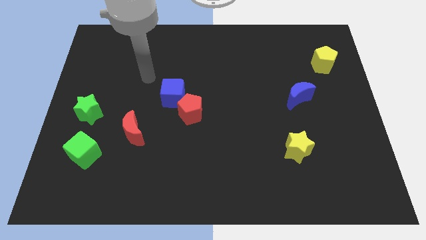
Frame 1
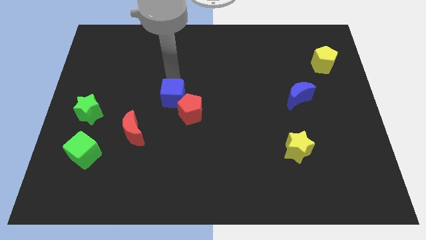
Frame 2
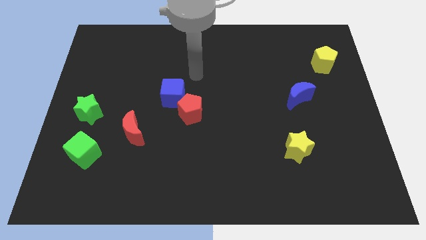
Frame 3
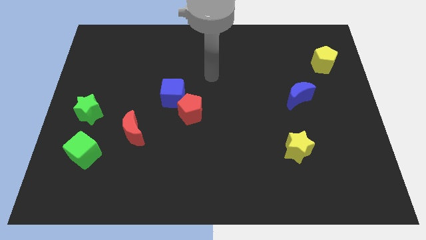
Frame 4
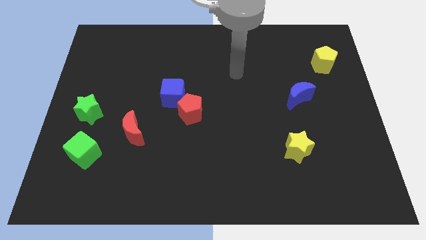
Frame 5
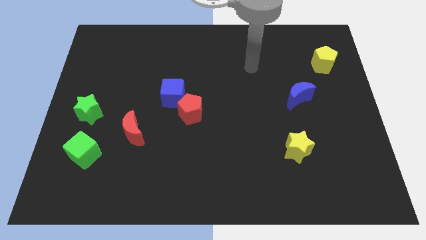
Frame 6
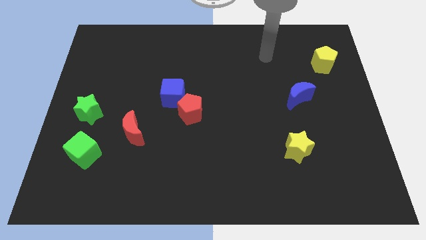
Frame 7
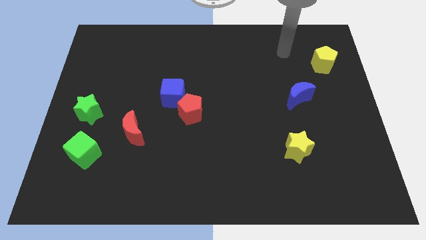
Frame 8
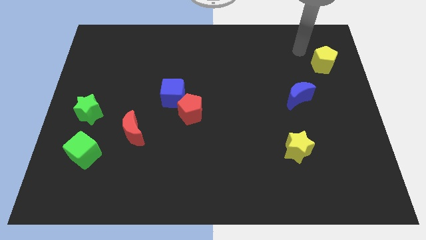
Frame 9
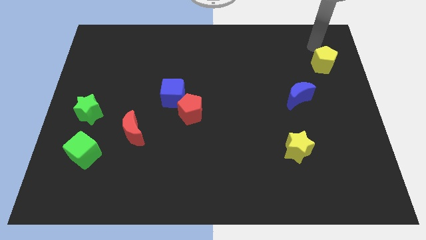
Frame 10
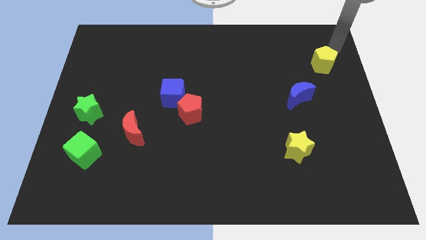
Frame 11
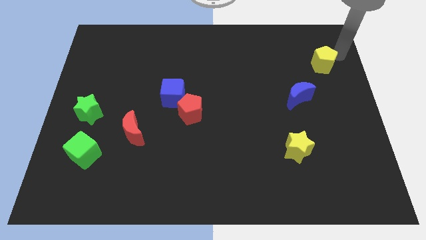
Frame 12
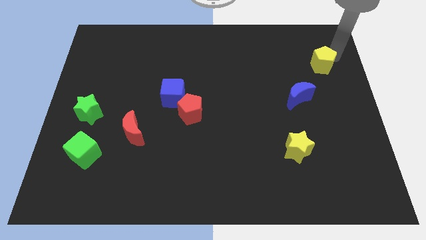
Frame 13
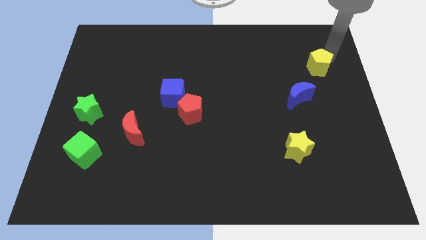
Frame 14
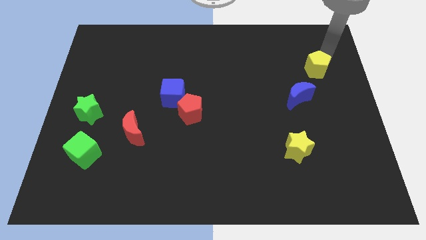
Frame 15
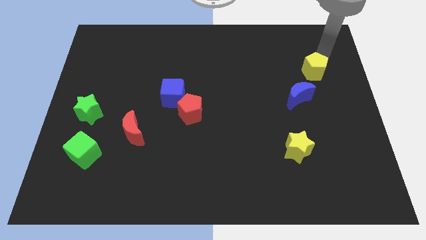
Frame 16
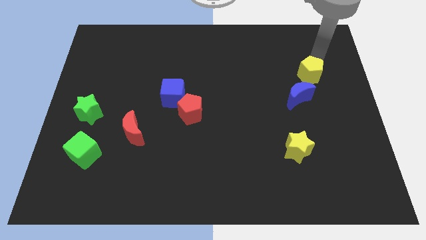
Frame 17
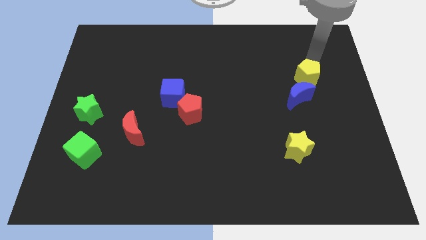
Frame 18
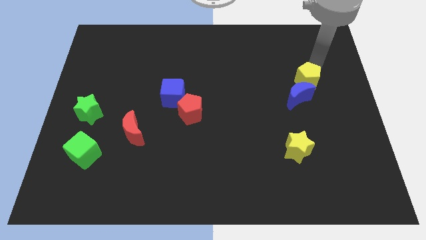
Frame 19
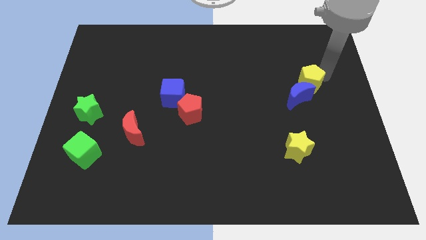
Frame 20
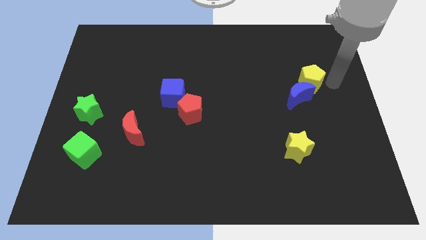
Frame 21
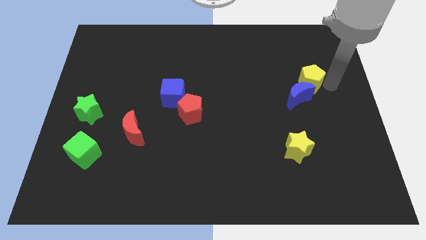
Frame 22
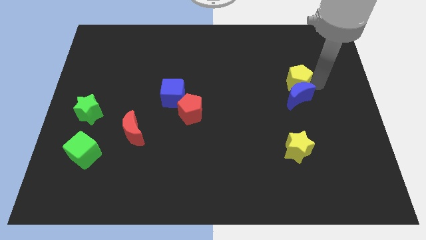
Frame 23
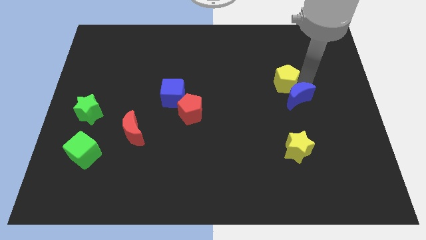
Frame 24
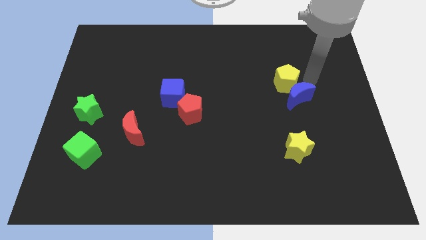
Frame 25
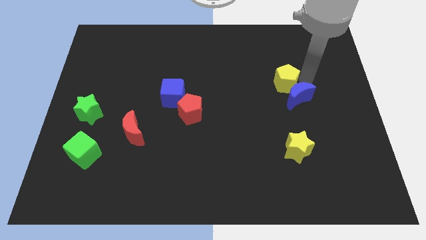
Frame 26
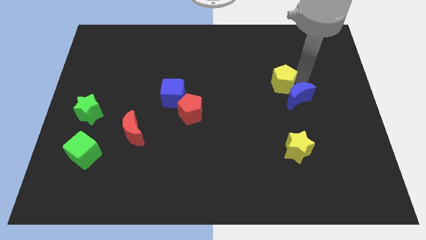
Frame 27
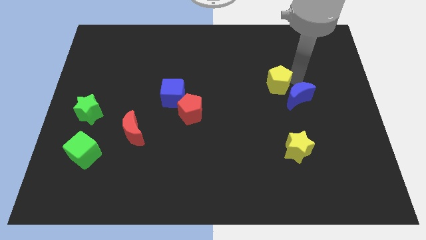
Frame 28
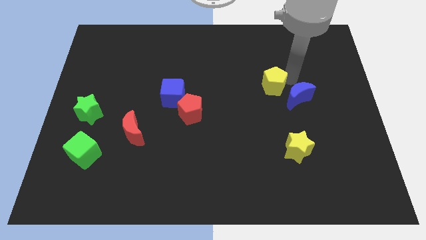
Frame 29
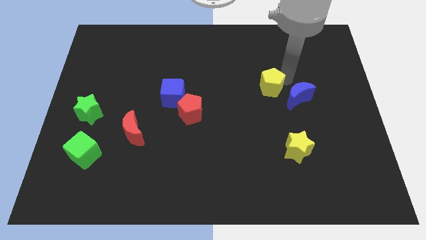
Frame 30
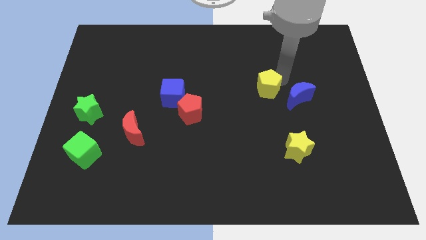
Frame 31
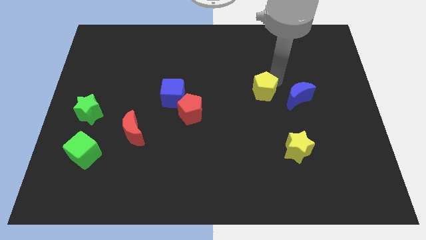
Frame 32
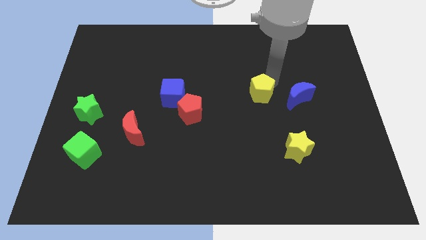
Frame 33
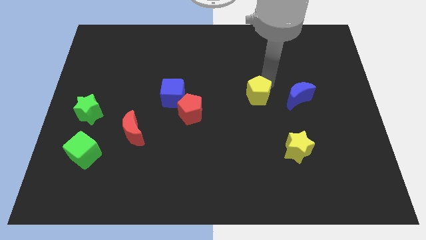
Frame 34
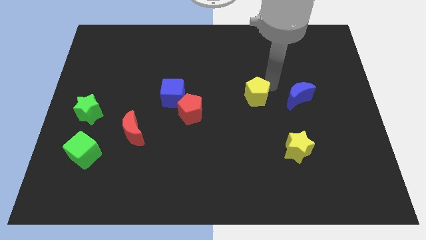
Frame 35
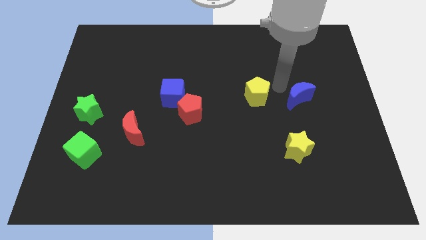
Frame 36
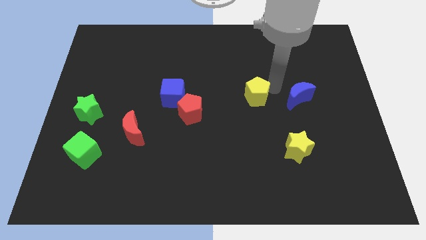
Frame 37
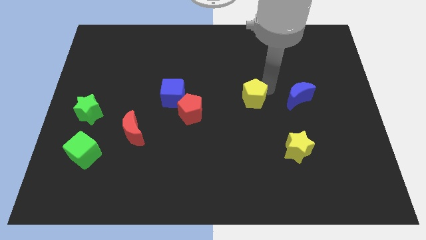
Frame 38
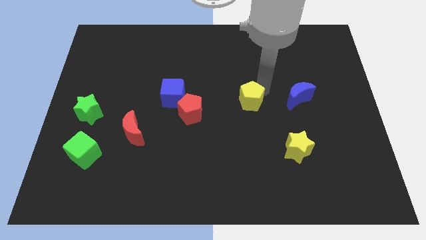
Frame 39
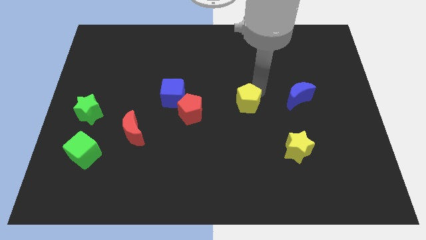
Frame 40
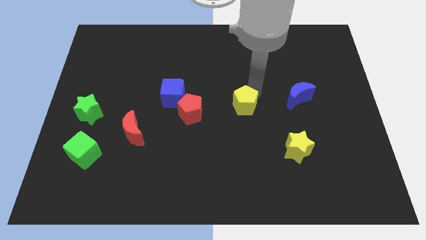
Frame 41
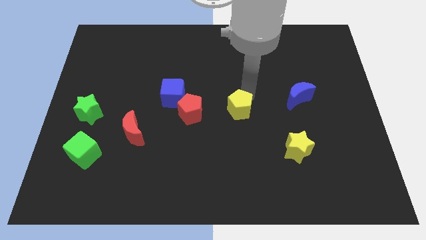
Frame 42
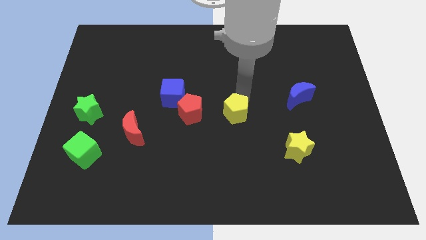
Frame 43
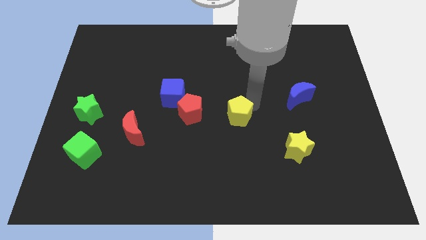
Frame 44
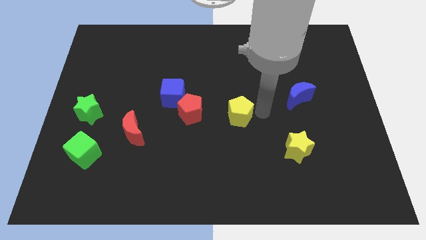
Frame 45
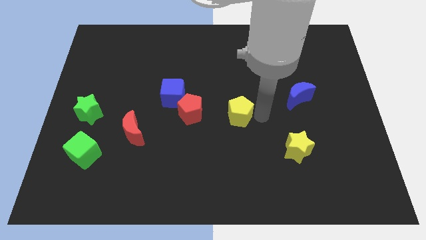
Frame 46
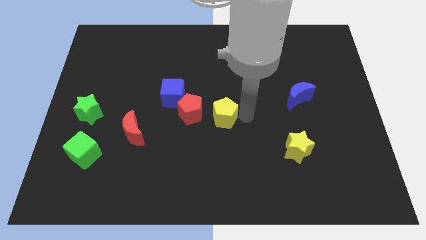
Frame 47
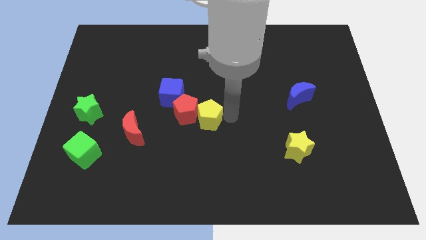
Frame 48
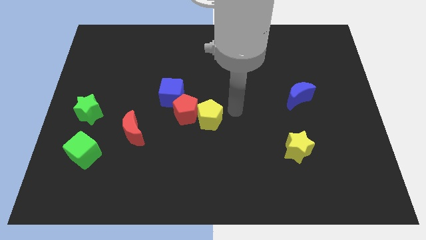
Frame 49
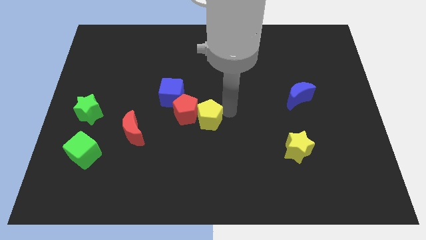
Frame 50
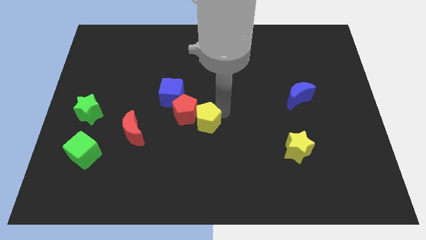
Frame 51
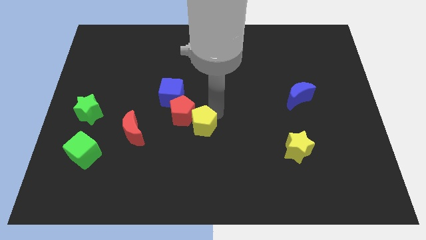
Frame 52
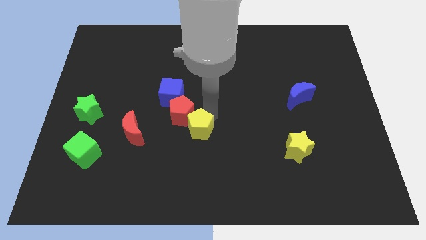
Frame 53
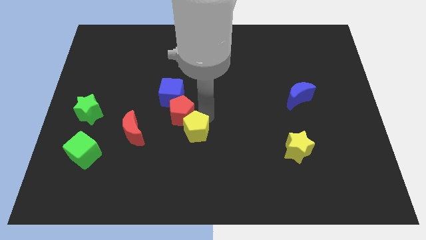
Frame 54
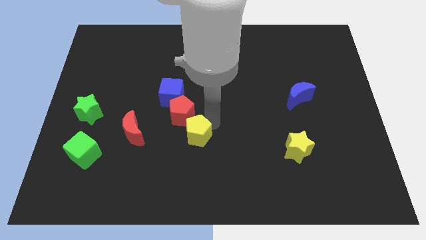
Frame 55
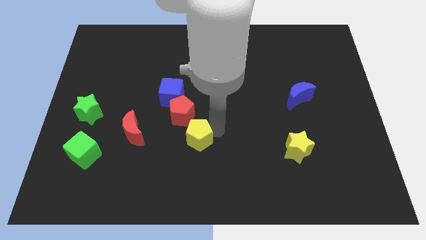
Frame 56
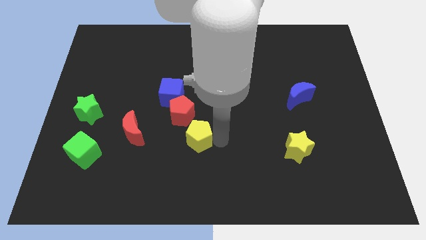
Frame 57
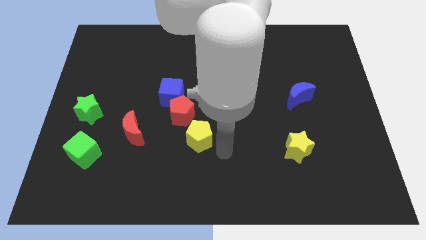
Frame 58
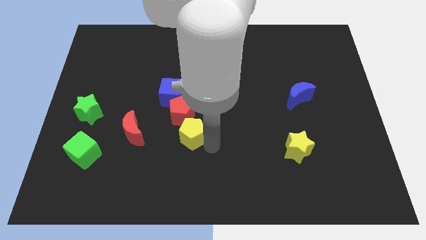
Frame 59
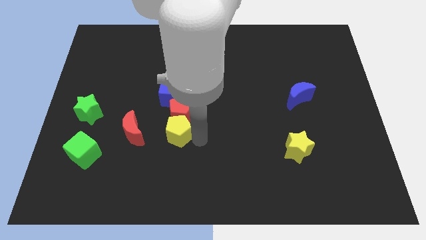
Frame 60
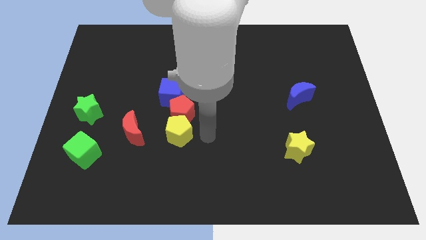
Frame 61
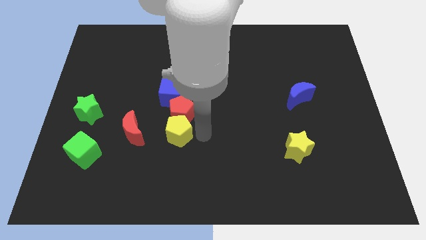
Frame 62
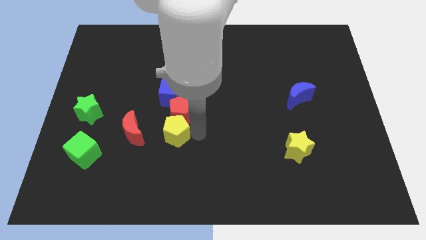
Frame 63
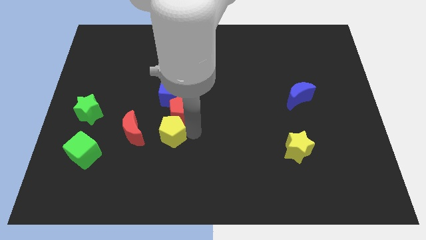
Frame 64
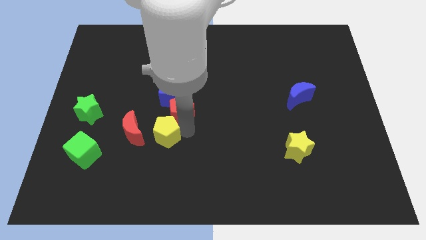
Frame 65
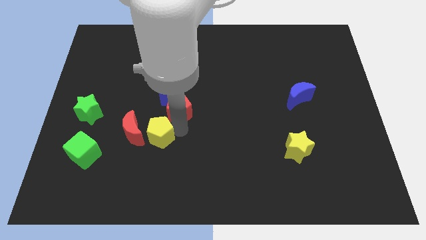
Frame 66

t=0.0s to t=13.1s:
put the yellow pentagon to the red moon
